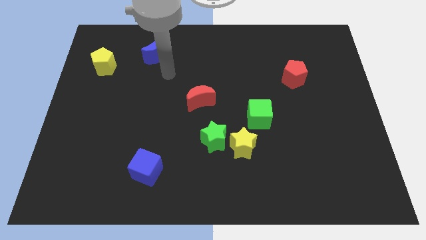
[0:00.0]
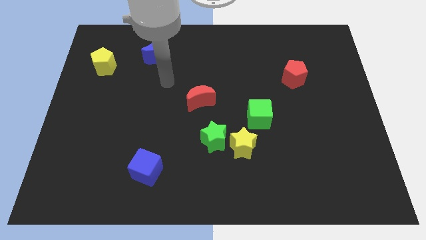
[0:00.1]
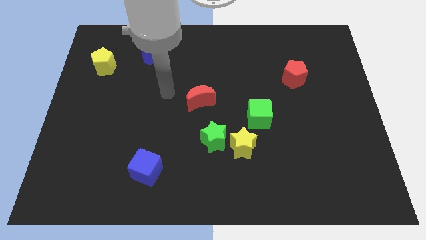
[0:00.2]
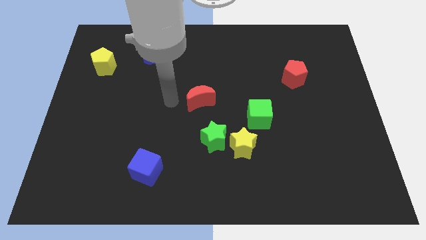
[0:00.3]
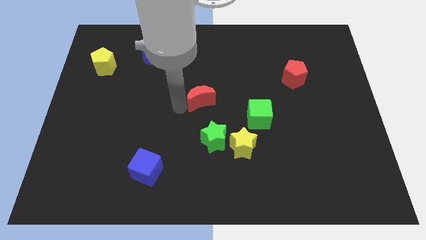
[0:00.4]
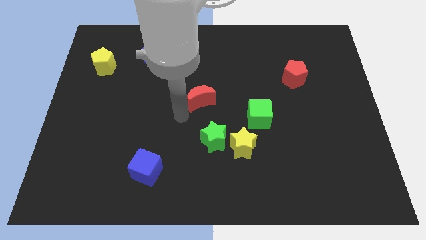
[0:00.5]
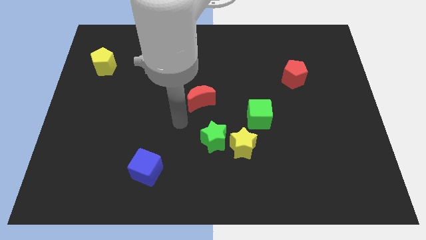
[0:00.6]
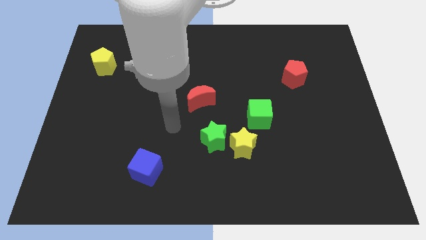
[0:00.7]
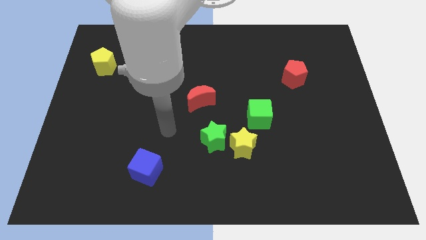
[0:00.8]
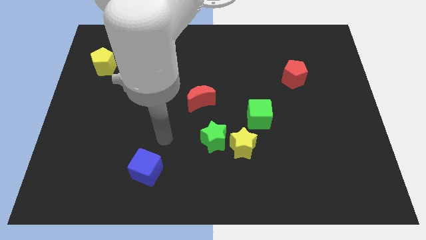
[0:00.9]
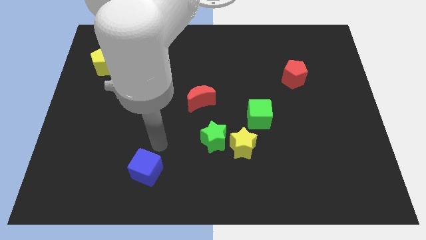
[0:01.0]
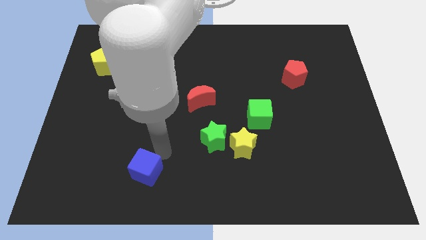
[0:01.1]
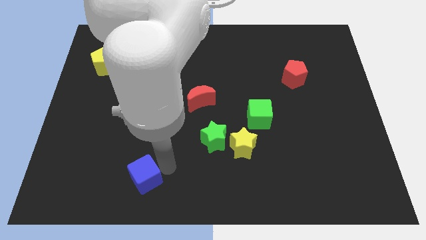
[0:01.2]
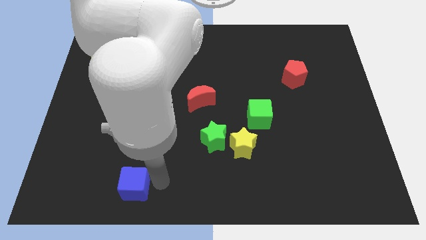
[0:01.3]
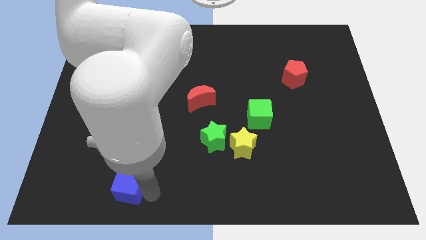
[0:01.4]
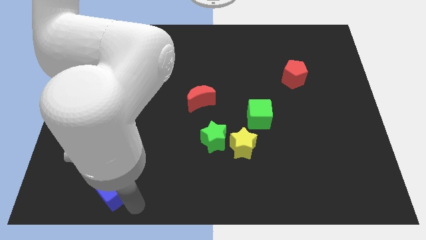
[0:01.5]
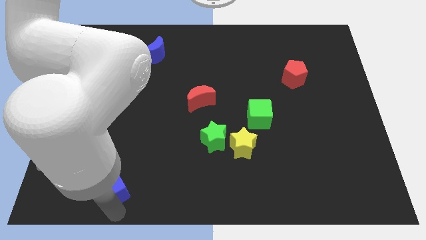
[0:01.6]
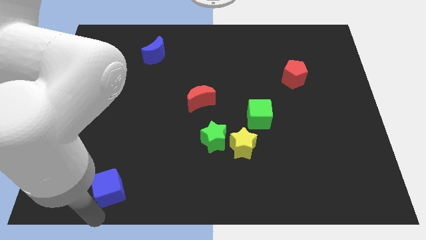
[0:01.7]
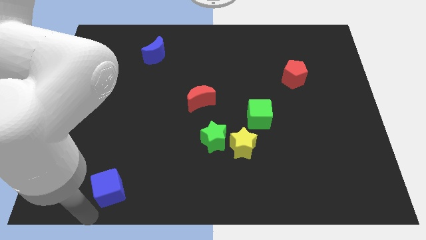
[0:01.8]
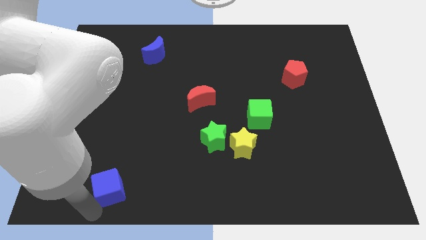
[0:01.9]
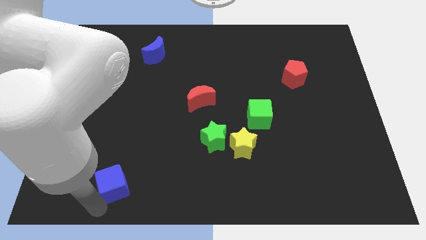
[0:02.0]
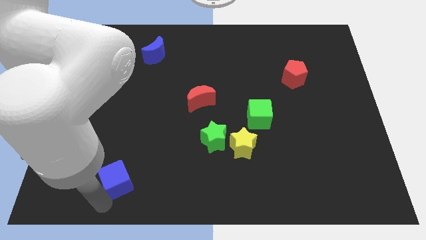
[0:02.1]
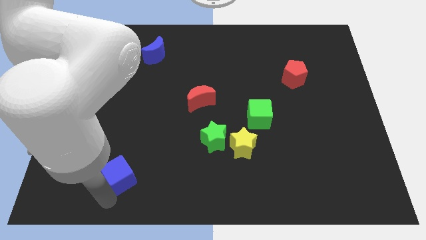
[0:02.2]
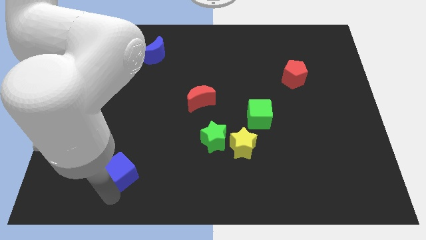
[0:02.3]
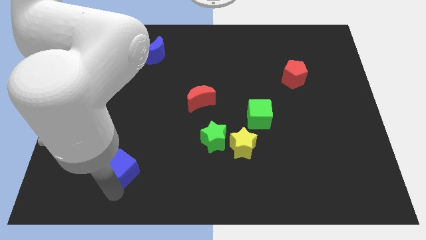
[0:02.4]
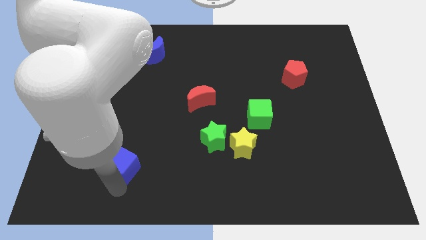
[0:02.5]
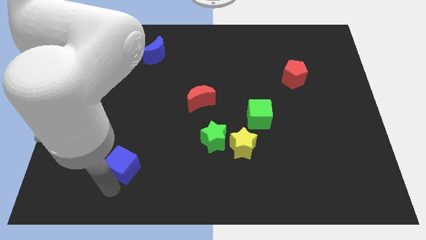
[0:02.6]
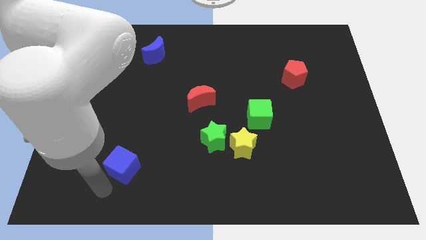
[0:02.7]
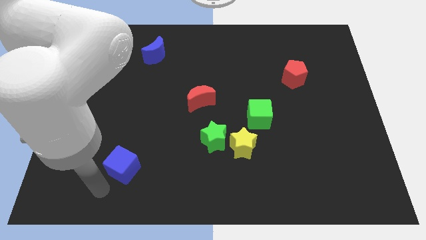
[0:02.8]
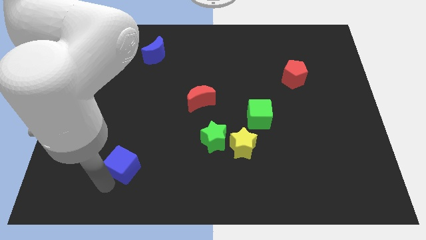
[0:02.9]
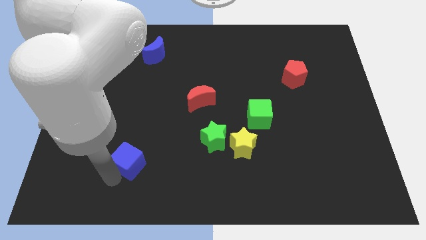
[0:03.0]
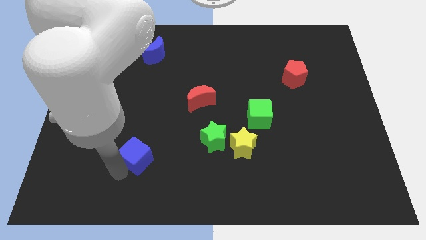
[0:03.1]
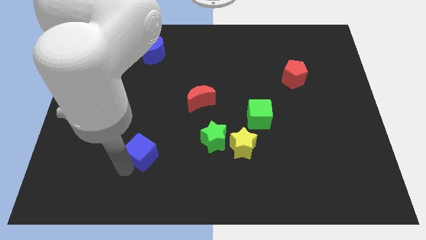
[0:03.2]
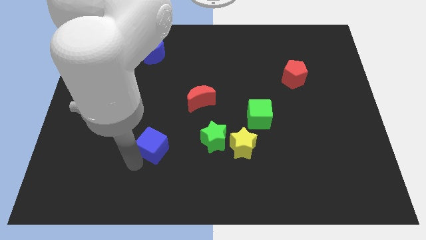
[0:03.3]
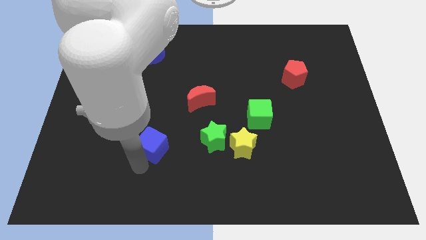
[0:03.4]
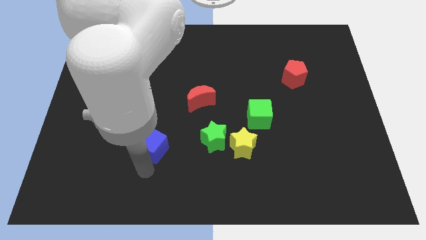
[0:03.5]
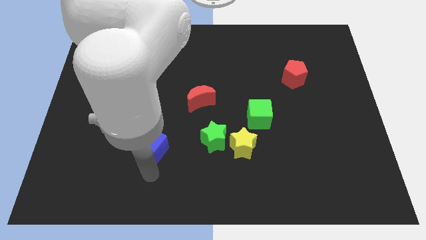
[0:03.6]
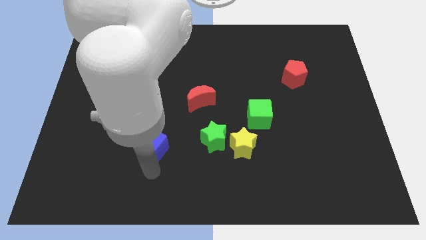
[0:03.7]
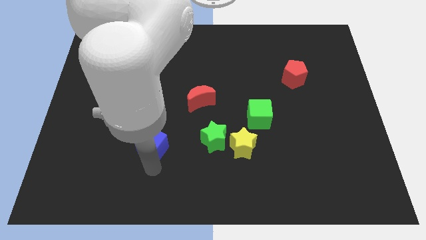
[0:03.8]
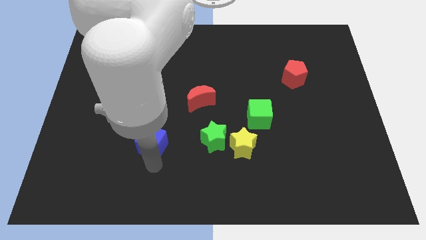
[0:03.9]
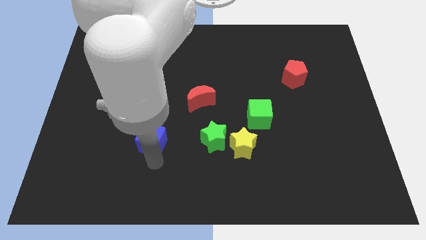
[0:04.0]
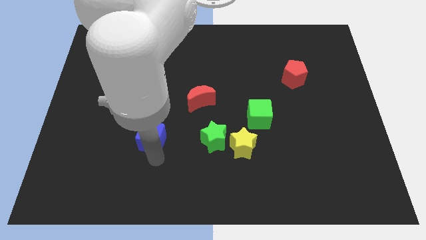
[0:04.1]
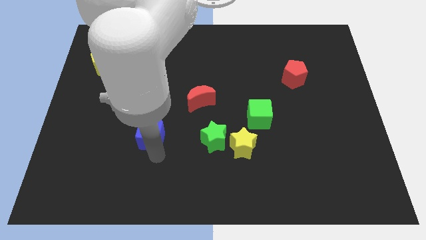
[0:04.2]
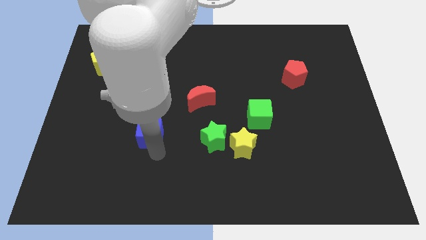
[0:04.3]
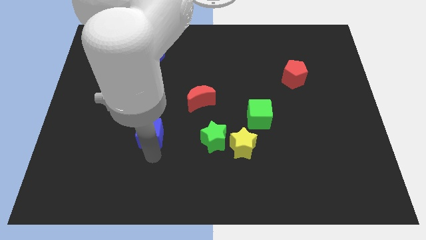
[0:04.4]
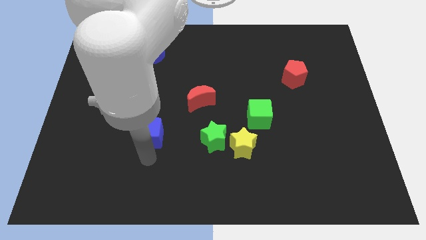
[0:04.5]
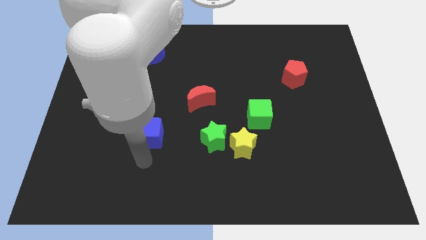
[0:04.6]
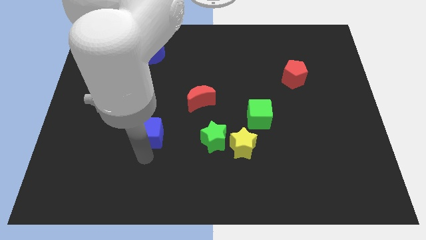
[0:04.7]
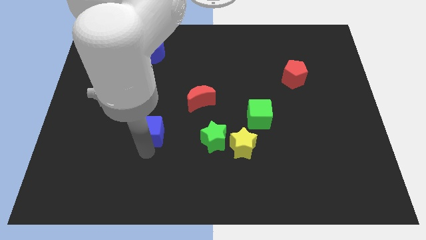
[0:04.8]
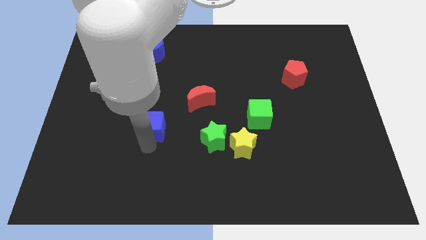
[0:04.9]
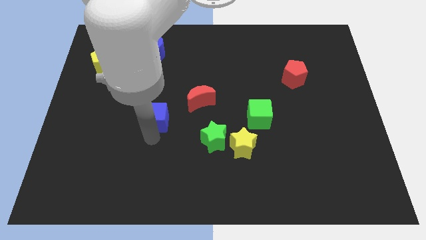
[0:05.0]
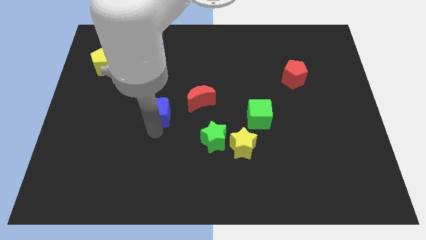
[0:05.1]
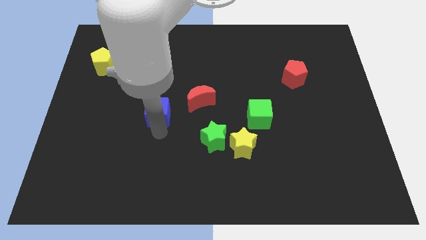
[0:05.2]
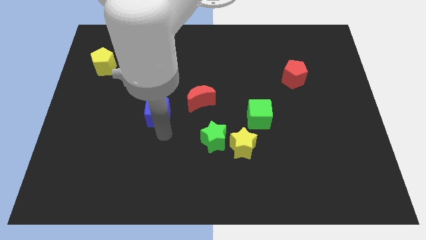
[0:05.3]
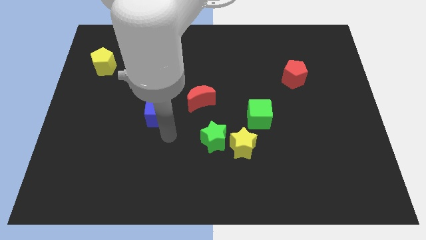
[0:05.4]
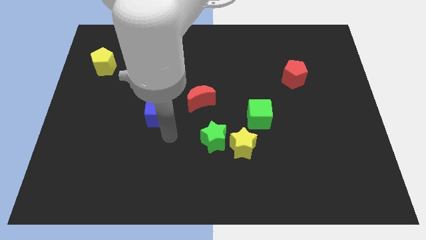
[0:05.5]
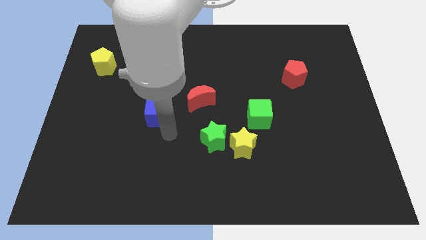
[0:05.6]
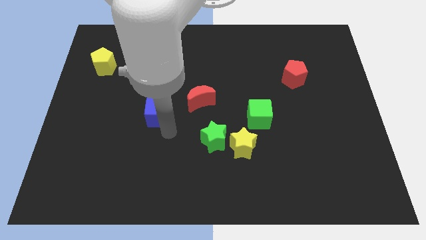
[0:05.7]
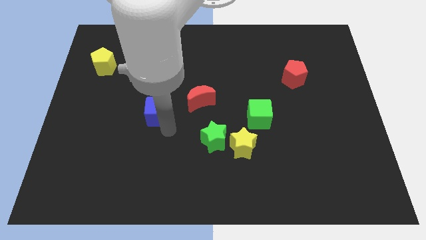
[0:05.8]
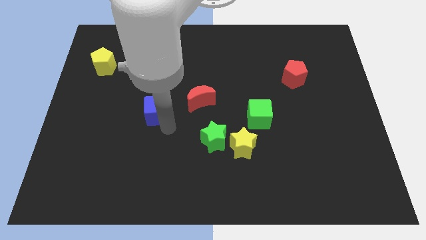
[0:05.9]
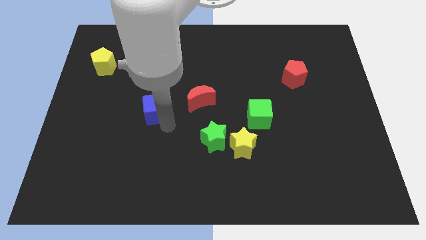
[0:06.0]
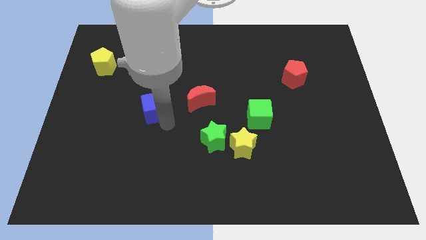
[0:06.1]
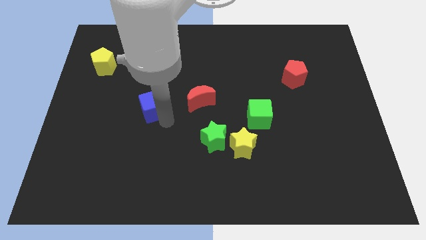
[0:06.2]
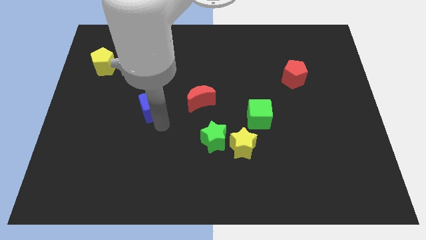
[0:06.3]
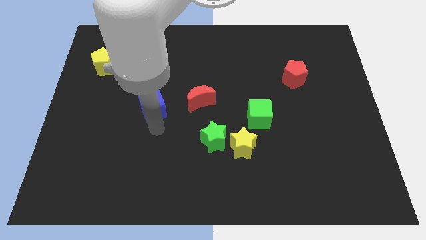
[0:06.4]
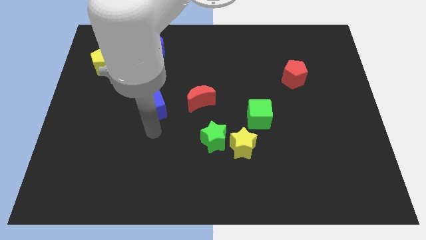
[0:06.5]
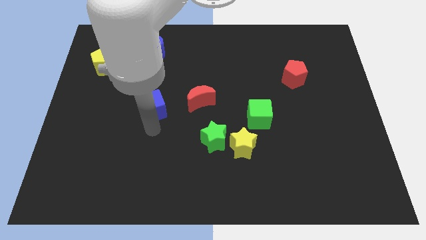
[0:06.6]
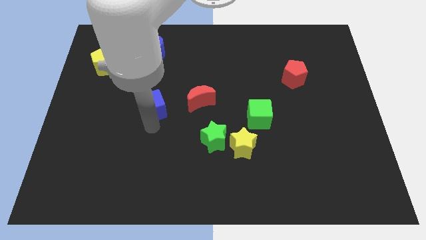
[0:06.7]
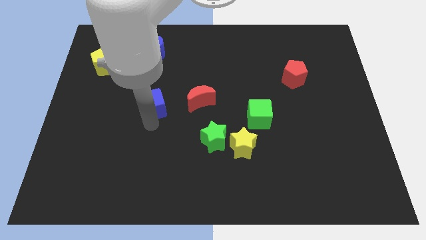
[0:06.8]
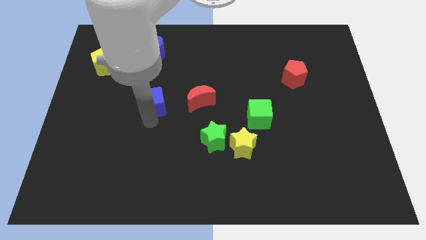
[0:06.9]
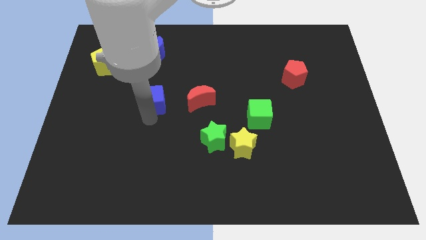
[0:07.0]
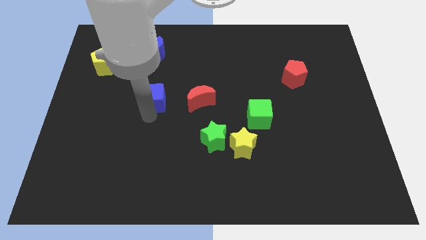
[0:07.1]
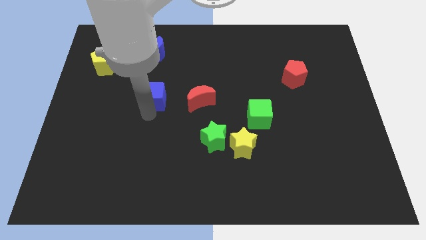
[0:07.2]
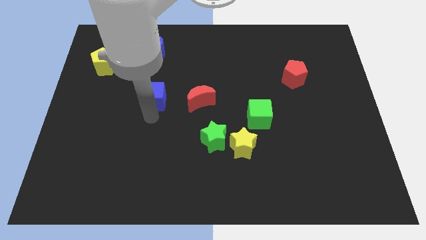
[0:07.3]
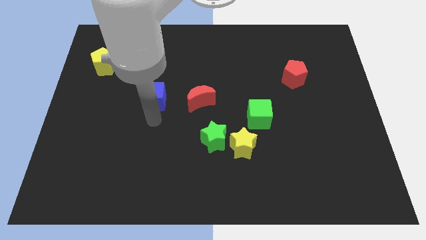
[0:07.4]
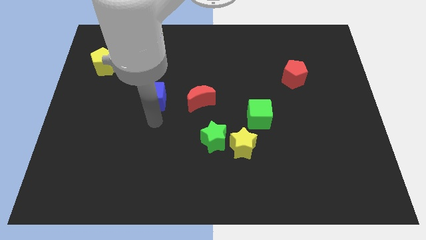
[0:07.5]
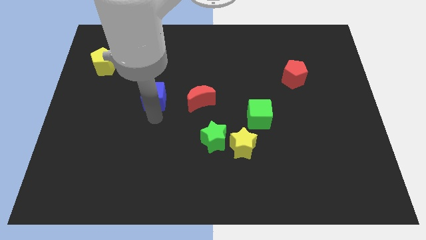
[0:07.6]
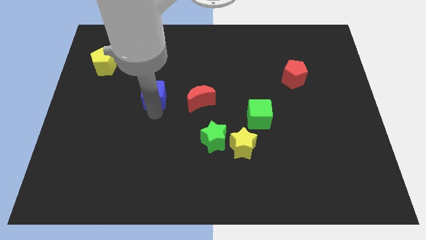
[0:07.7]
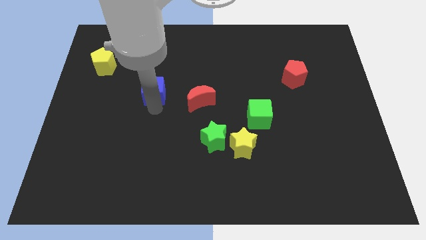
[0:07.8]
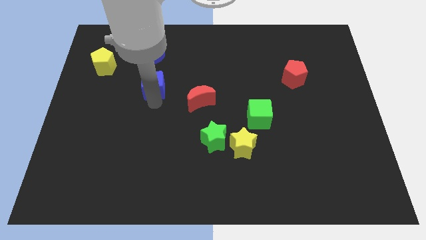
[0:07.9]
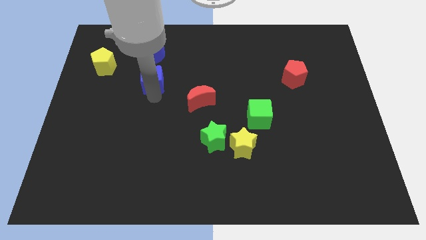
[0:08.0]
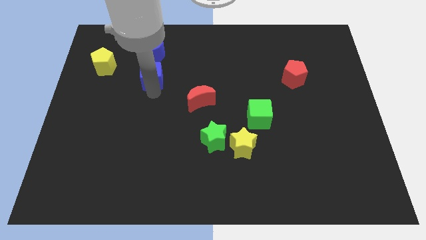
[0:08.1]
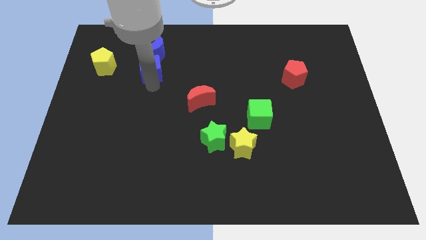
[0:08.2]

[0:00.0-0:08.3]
put the blue cube to the blue moon
